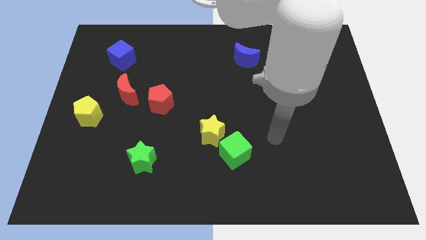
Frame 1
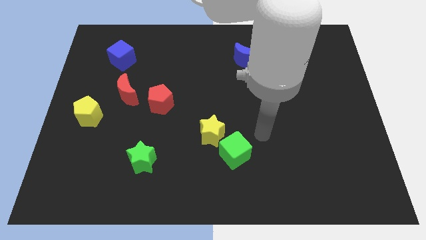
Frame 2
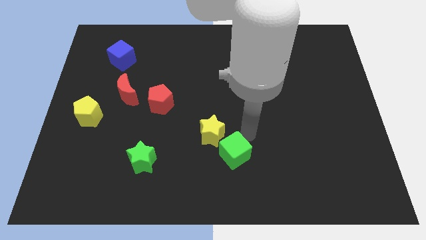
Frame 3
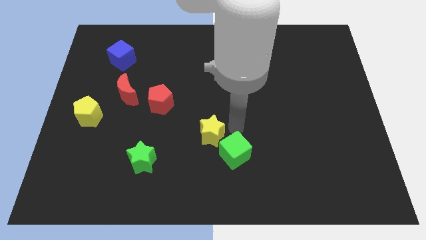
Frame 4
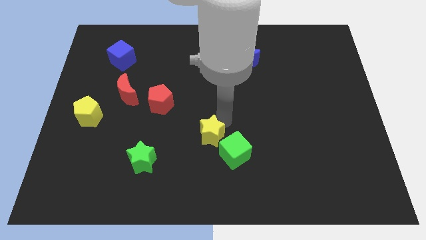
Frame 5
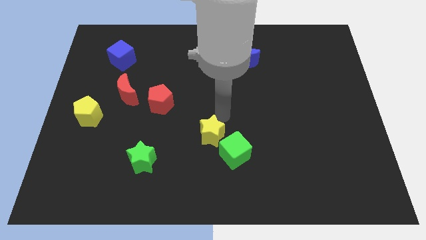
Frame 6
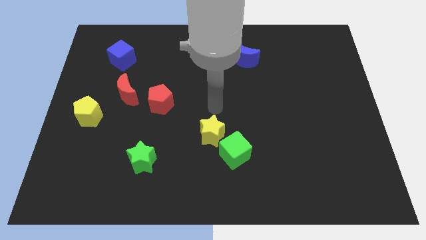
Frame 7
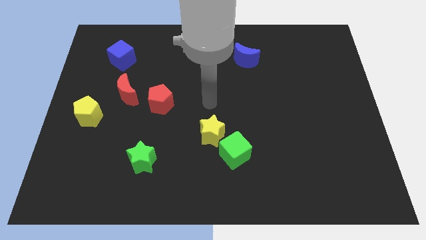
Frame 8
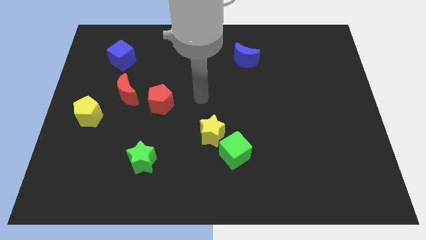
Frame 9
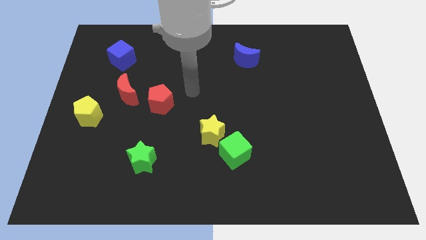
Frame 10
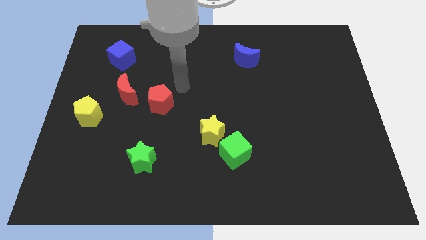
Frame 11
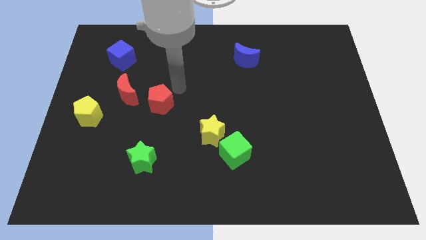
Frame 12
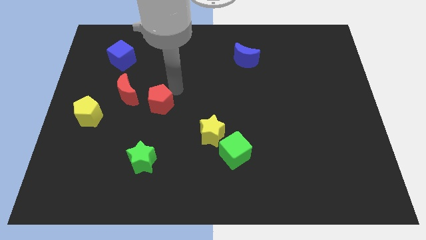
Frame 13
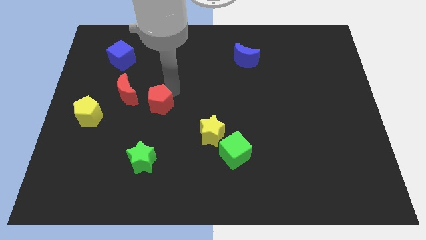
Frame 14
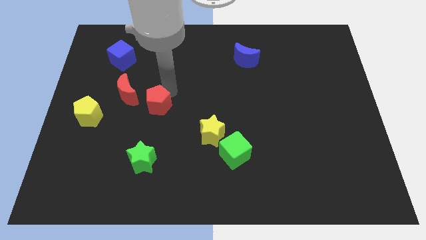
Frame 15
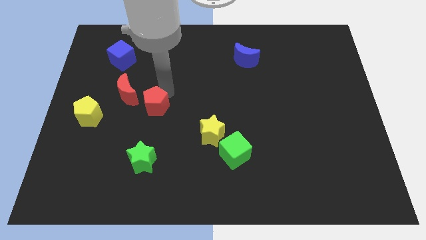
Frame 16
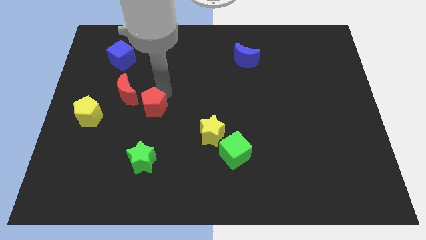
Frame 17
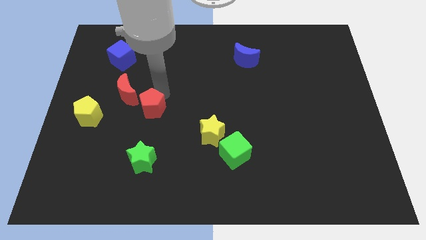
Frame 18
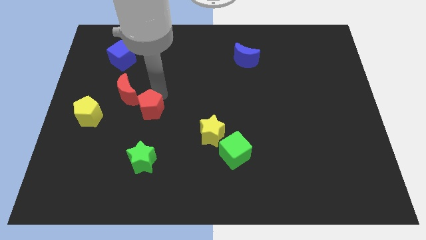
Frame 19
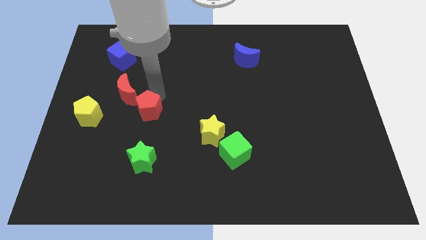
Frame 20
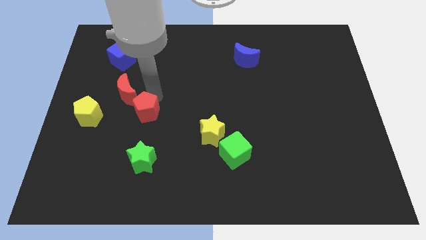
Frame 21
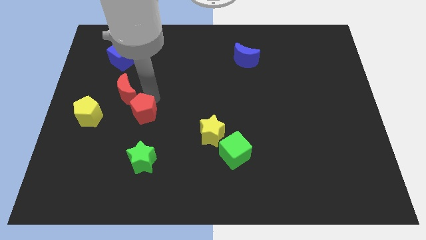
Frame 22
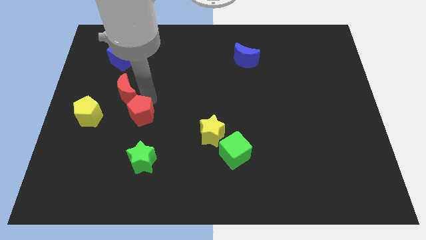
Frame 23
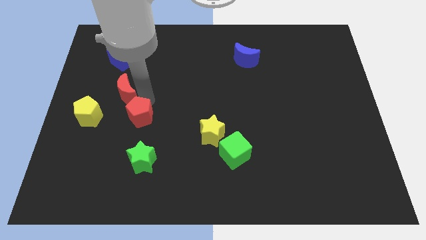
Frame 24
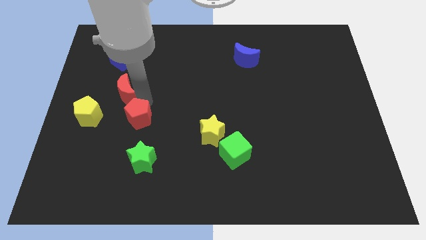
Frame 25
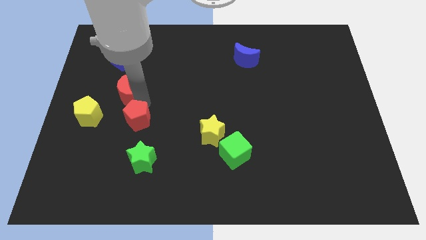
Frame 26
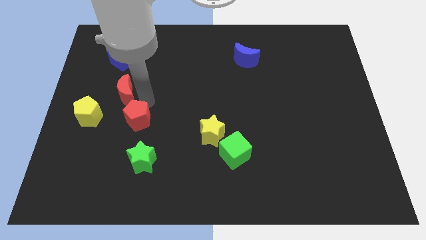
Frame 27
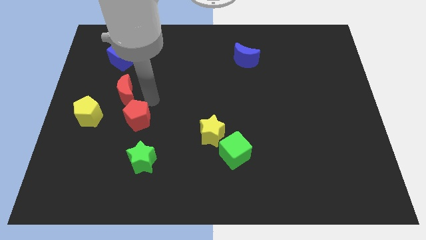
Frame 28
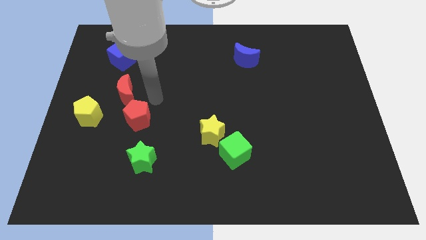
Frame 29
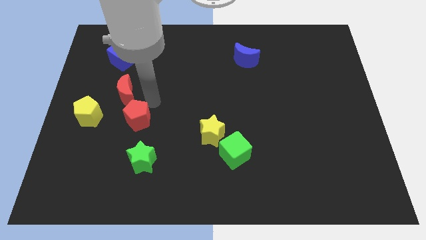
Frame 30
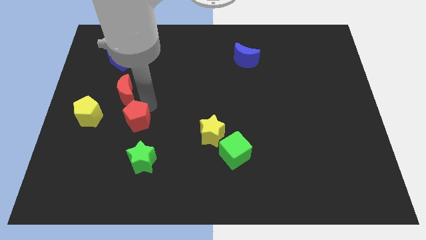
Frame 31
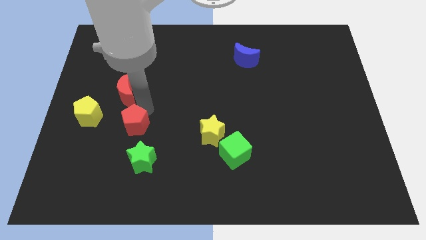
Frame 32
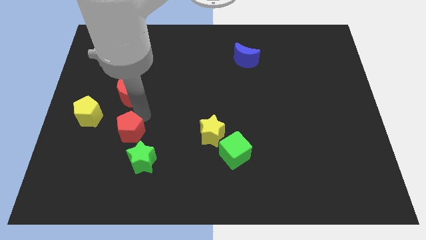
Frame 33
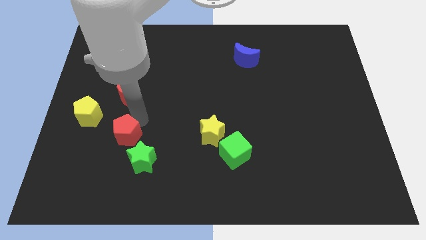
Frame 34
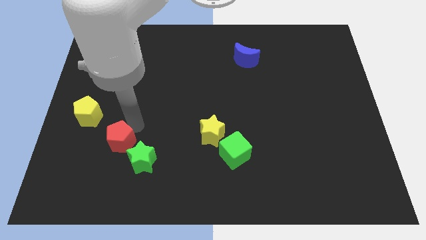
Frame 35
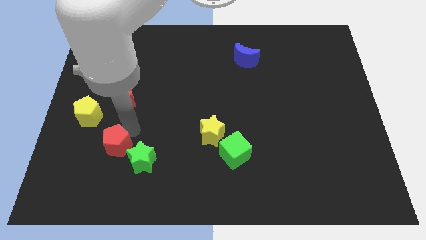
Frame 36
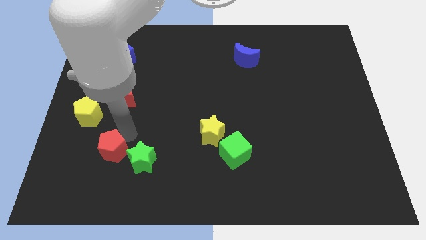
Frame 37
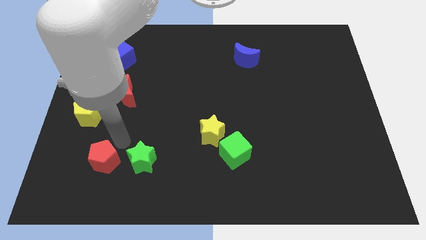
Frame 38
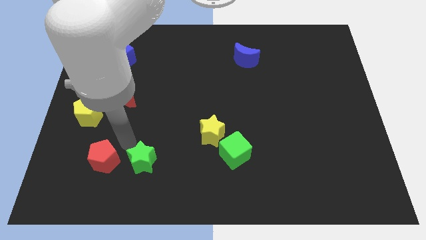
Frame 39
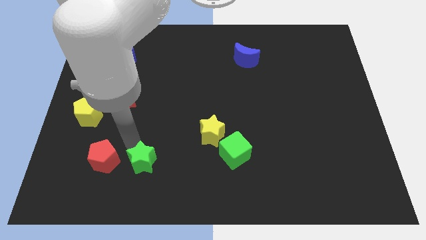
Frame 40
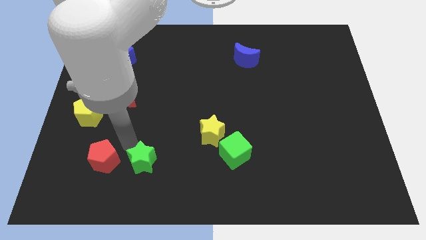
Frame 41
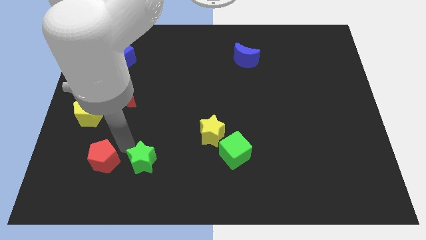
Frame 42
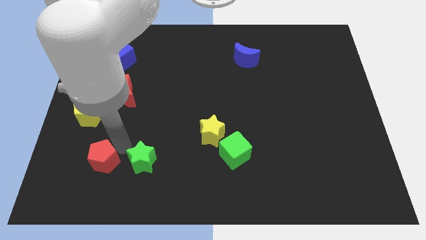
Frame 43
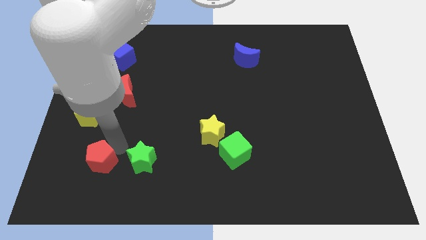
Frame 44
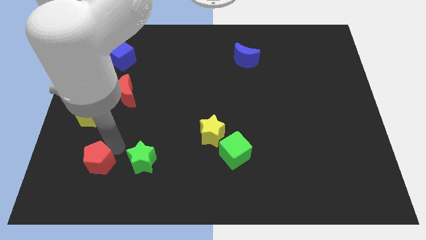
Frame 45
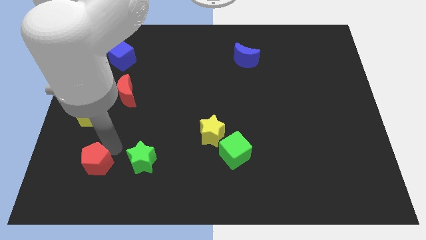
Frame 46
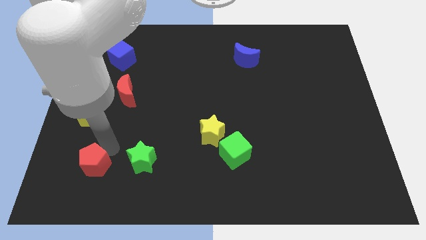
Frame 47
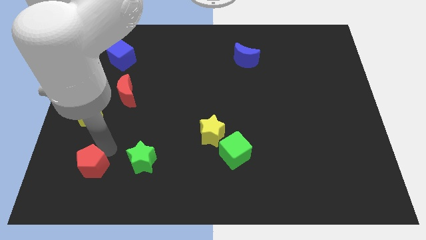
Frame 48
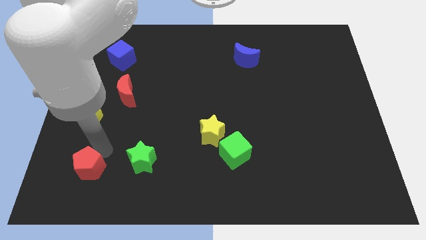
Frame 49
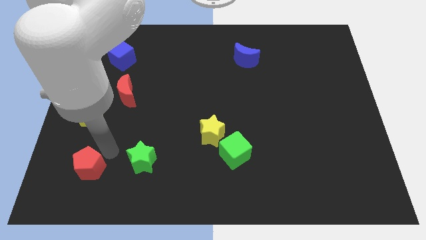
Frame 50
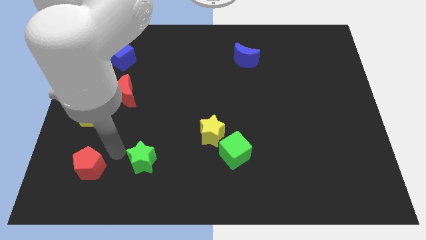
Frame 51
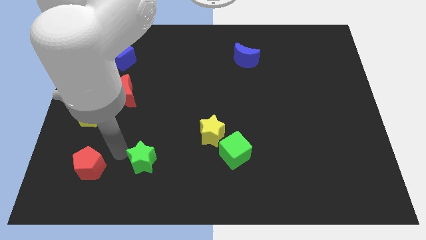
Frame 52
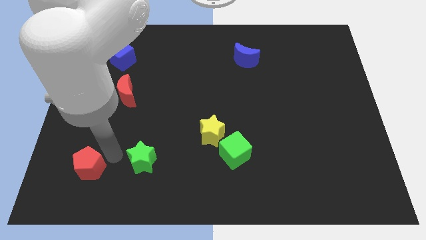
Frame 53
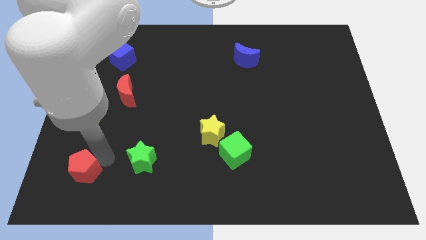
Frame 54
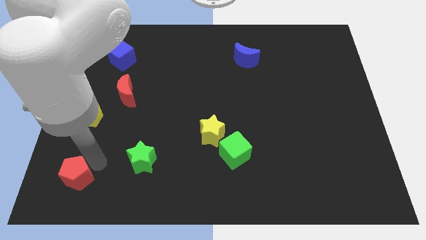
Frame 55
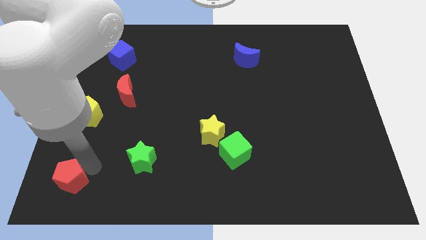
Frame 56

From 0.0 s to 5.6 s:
move the red pentagon to the bottom left of the board

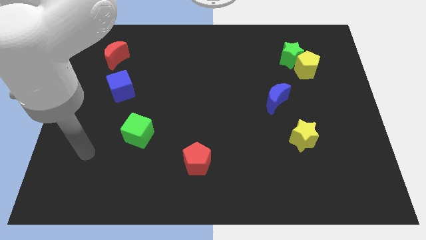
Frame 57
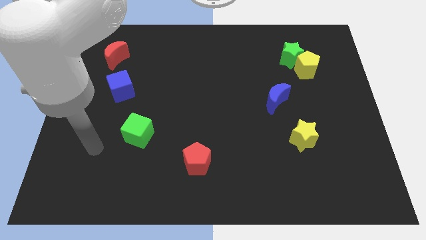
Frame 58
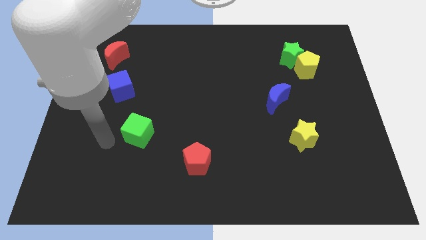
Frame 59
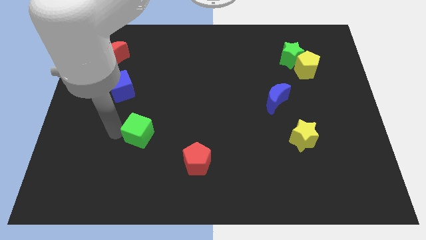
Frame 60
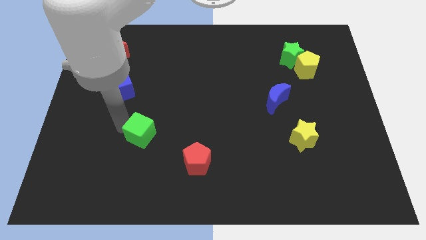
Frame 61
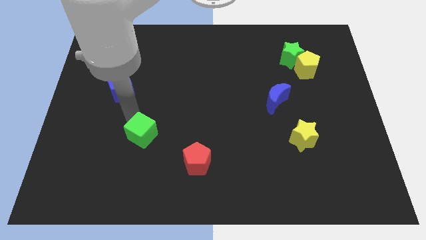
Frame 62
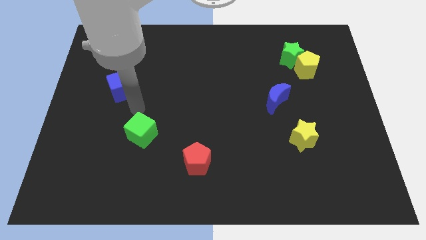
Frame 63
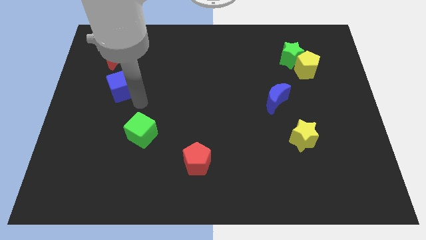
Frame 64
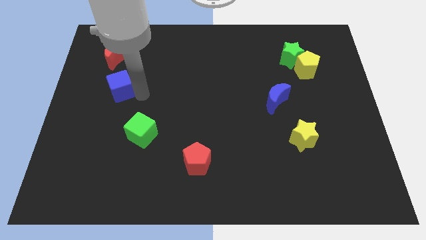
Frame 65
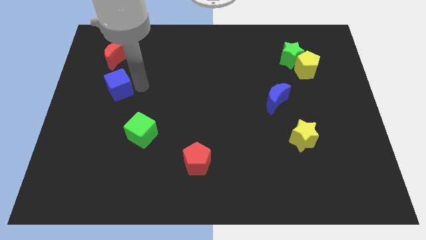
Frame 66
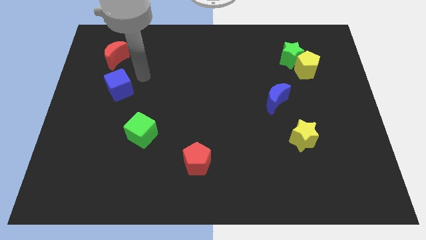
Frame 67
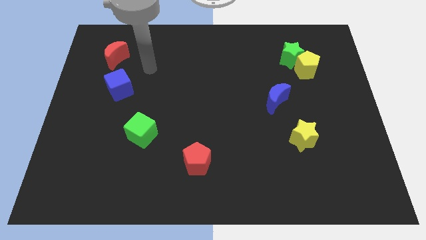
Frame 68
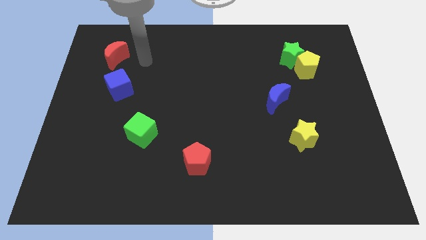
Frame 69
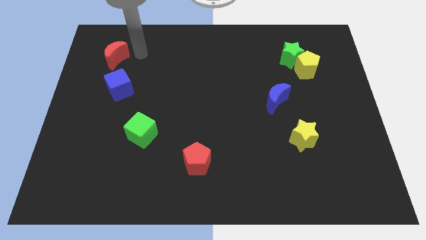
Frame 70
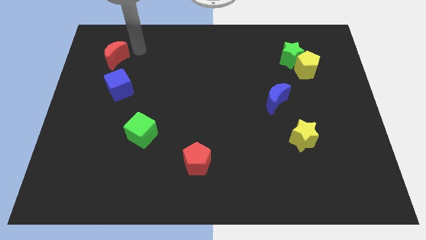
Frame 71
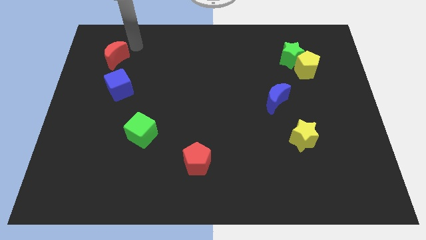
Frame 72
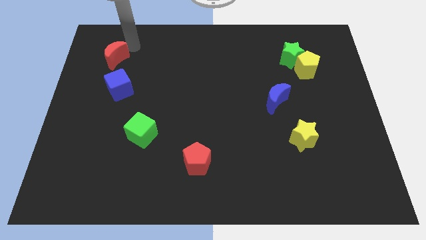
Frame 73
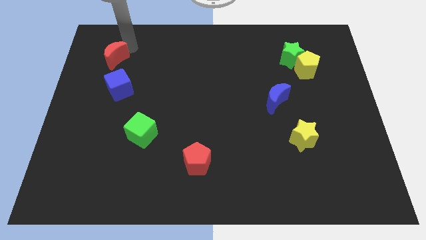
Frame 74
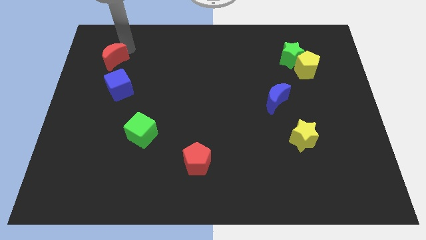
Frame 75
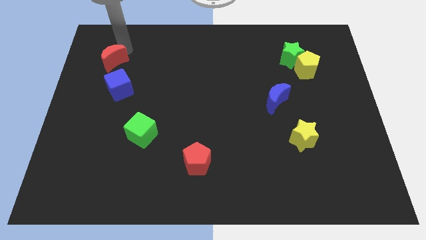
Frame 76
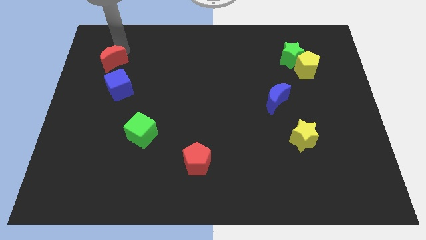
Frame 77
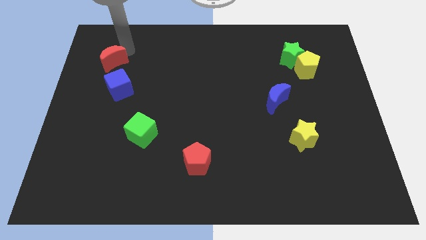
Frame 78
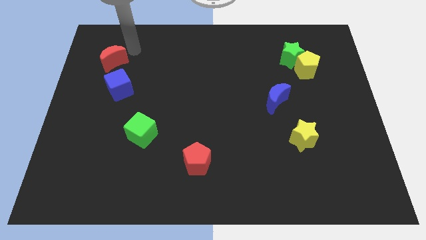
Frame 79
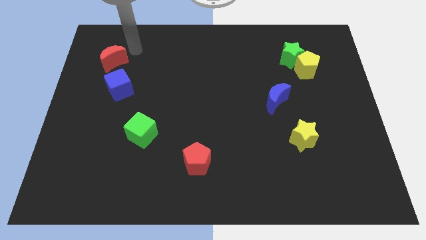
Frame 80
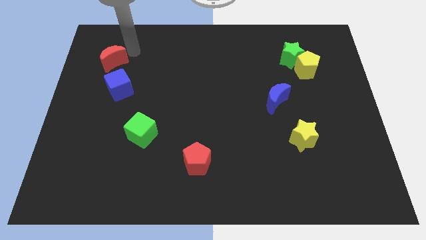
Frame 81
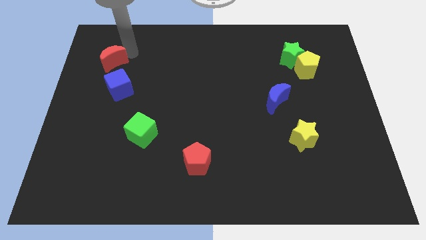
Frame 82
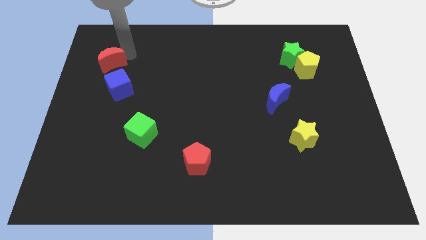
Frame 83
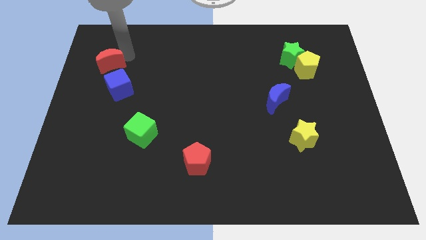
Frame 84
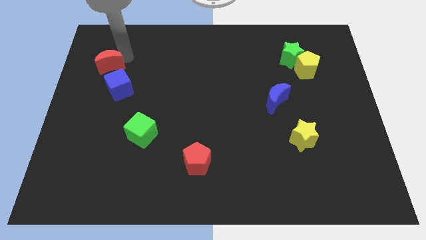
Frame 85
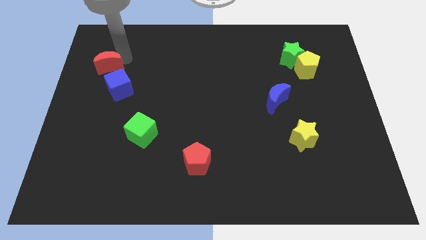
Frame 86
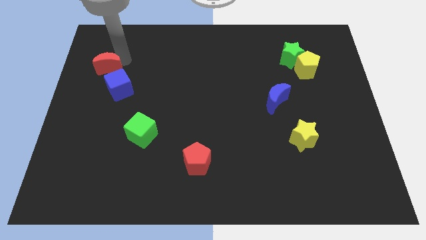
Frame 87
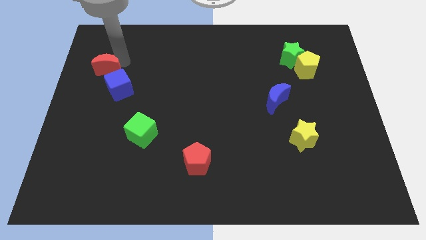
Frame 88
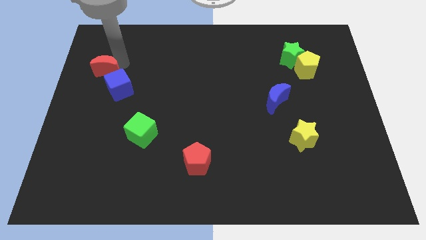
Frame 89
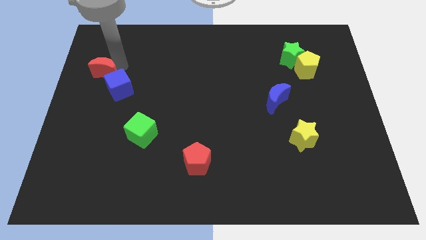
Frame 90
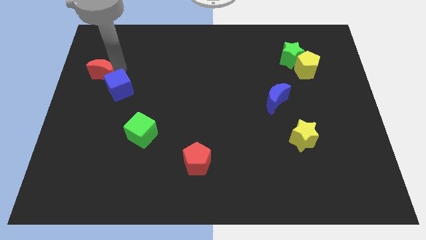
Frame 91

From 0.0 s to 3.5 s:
slide the red moon to the center left
